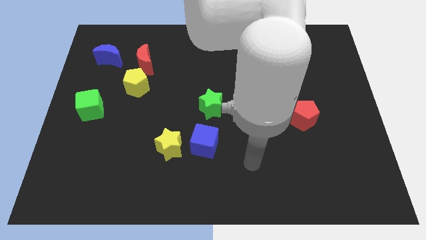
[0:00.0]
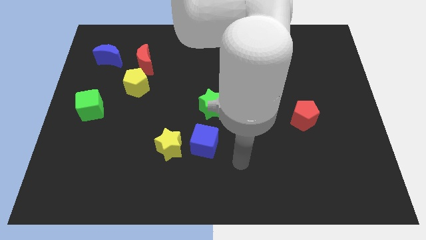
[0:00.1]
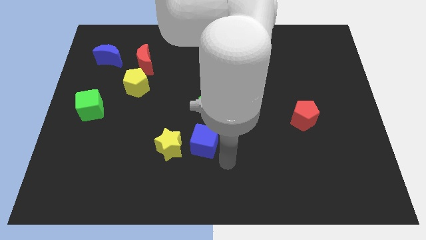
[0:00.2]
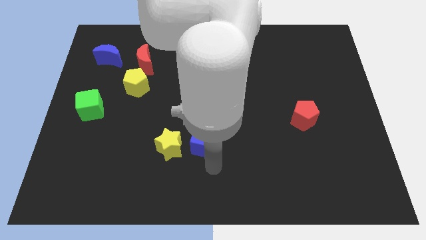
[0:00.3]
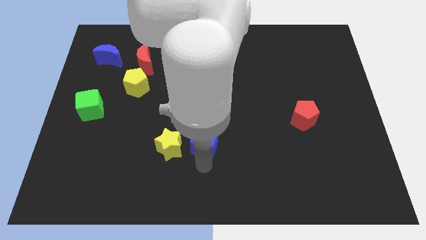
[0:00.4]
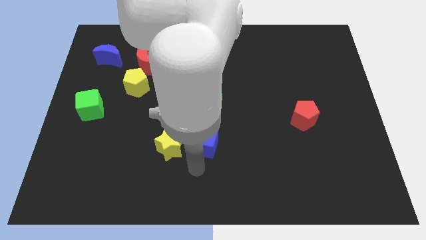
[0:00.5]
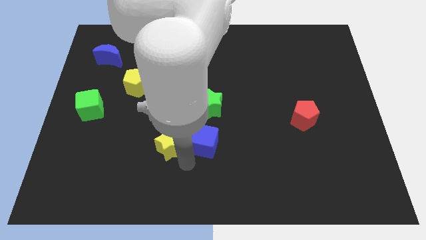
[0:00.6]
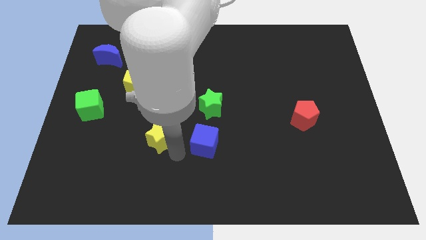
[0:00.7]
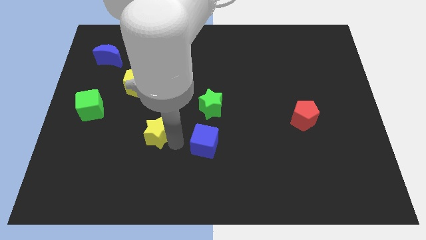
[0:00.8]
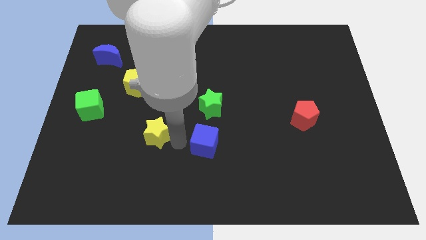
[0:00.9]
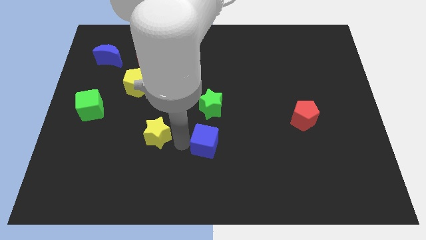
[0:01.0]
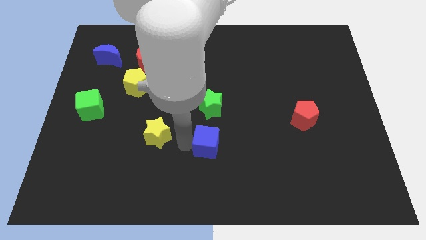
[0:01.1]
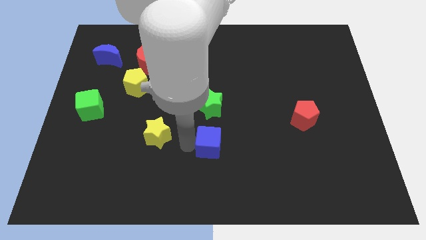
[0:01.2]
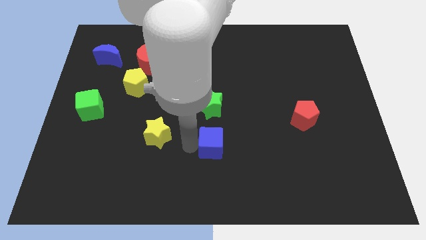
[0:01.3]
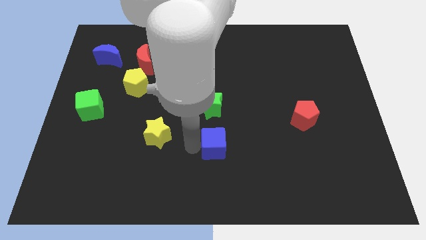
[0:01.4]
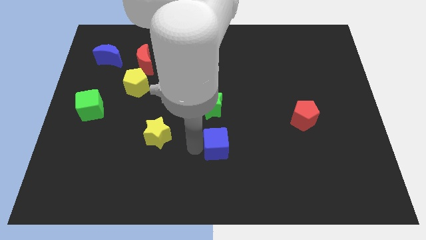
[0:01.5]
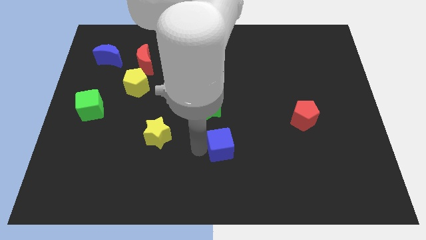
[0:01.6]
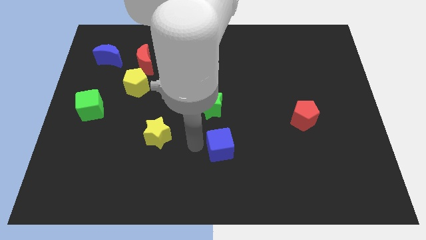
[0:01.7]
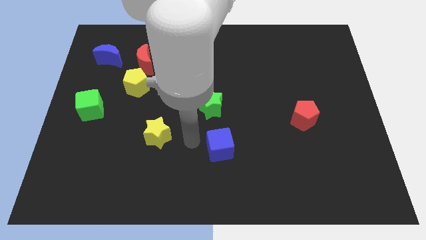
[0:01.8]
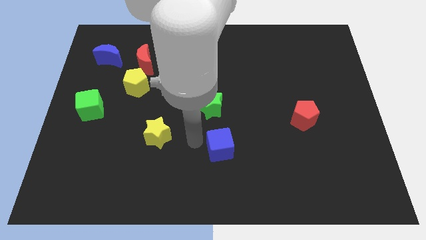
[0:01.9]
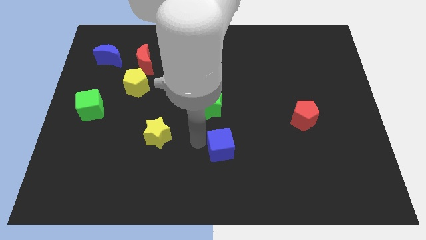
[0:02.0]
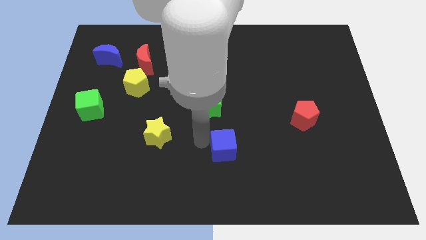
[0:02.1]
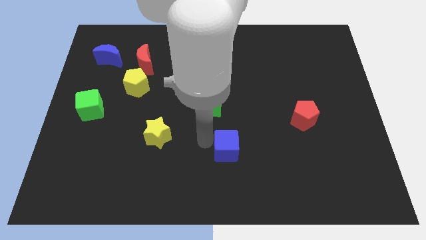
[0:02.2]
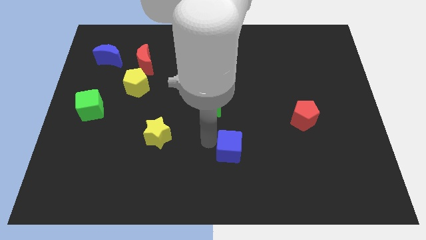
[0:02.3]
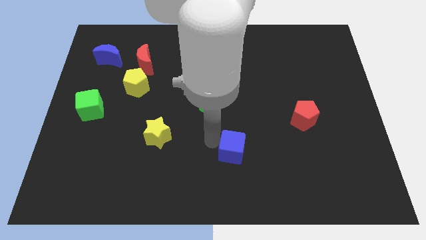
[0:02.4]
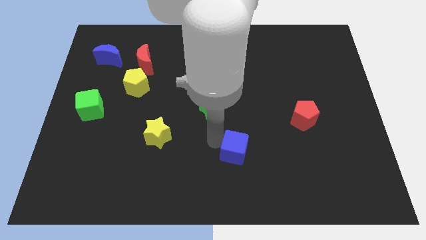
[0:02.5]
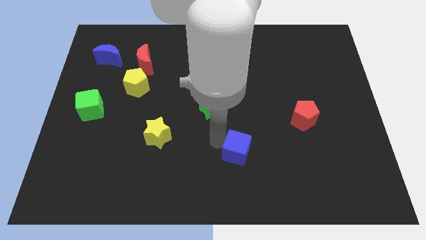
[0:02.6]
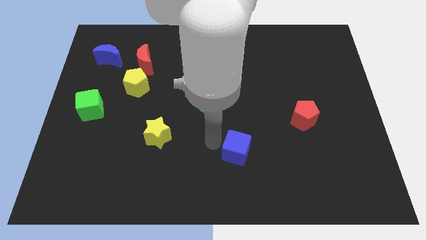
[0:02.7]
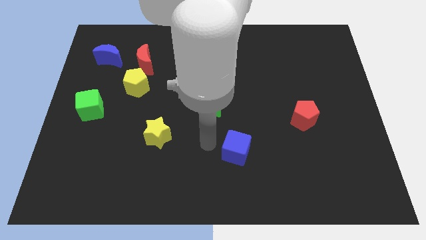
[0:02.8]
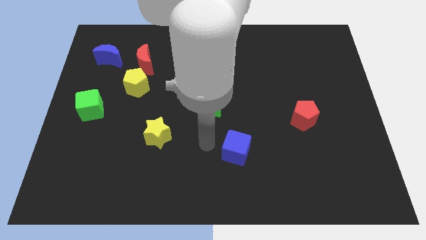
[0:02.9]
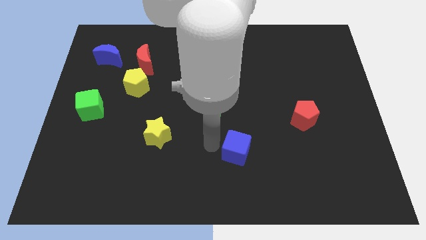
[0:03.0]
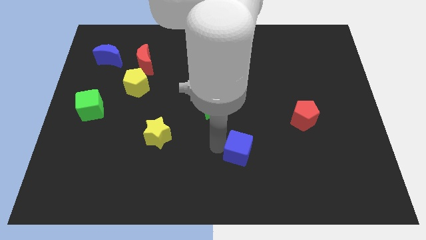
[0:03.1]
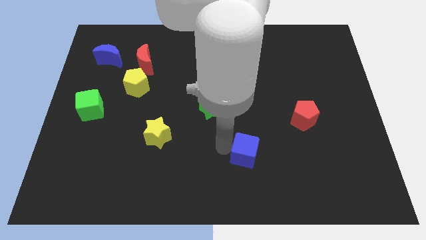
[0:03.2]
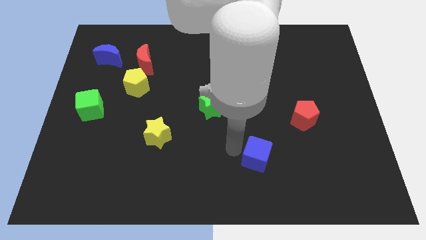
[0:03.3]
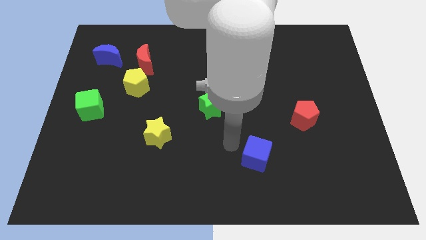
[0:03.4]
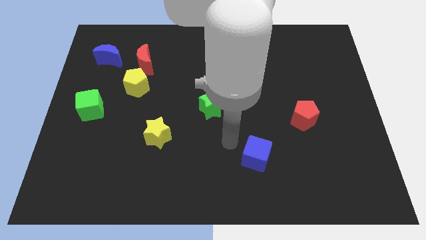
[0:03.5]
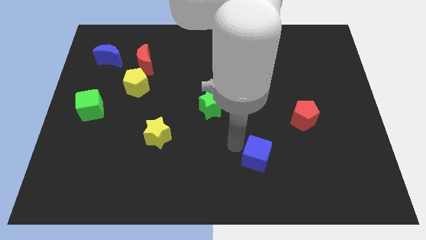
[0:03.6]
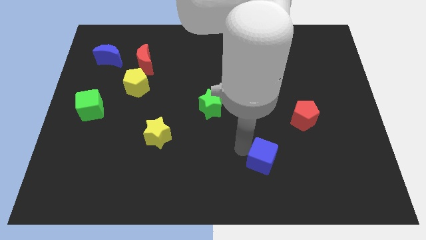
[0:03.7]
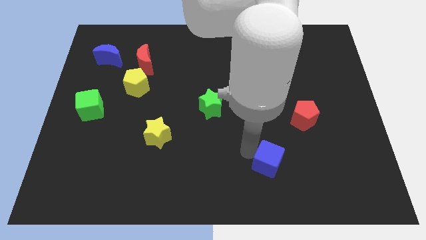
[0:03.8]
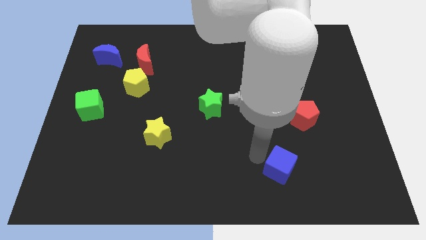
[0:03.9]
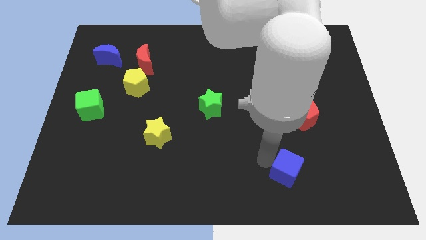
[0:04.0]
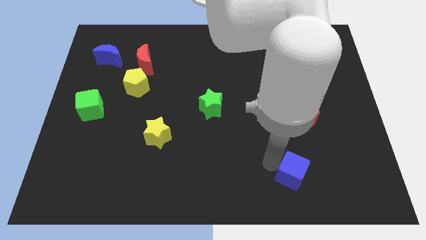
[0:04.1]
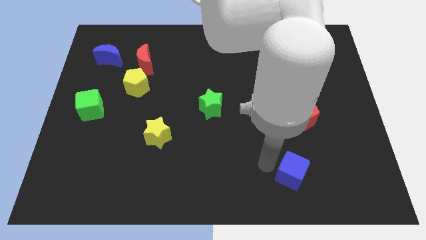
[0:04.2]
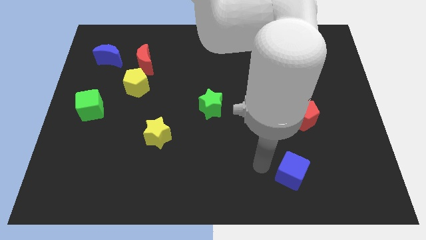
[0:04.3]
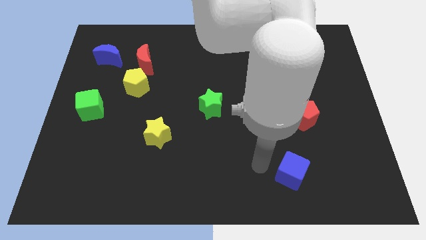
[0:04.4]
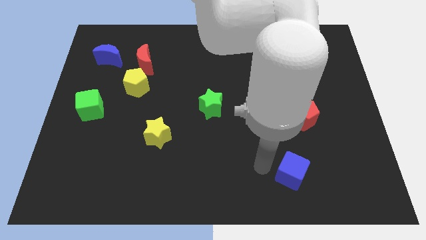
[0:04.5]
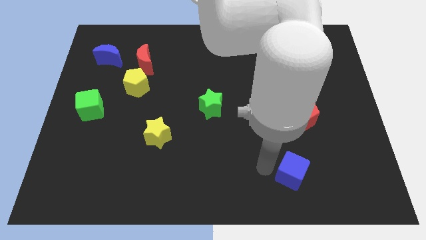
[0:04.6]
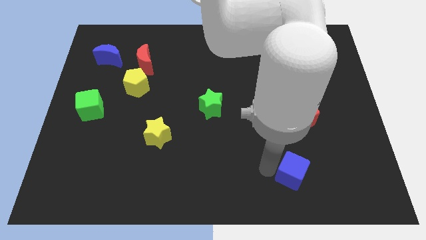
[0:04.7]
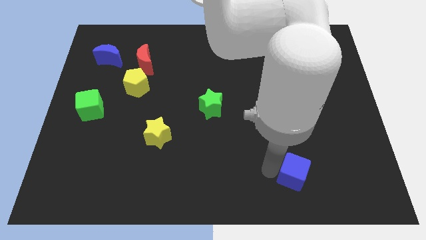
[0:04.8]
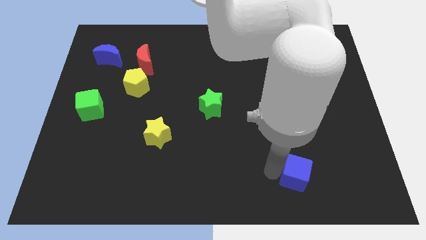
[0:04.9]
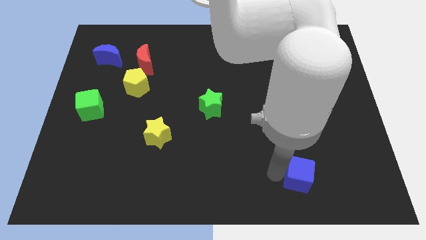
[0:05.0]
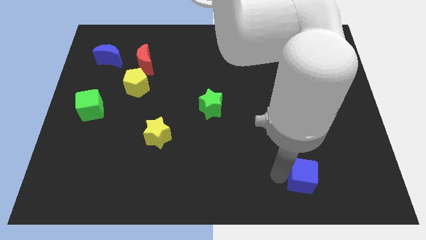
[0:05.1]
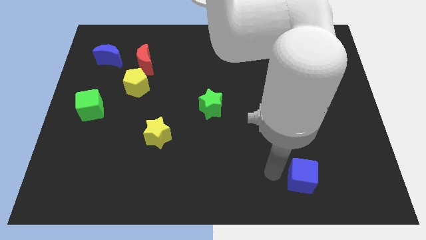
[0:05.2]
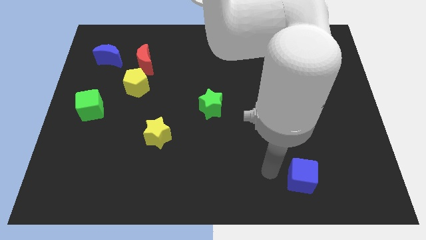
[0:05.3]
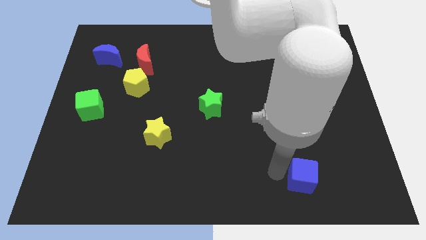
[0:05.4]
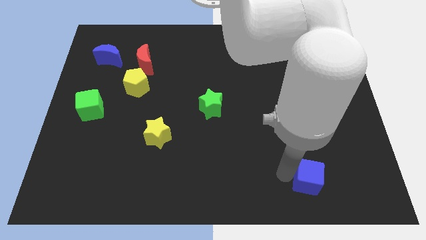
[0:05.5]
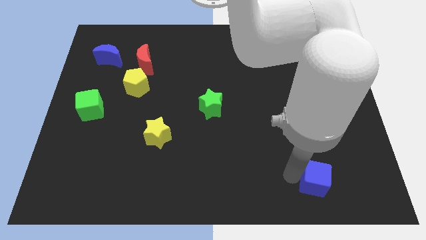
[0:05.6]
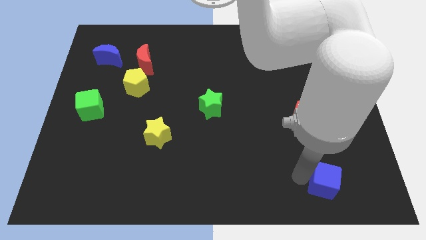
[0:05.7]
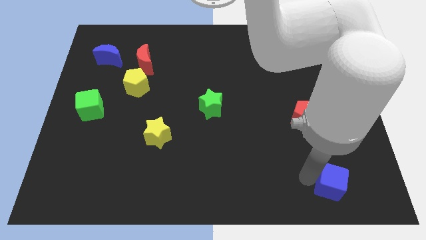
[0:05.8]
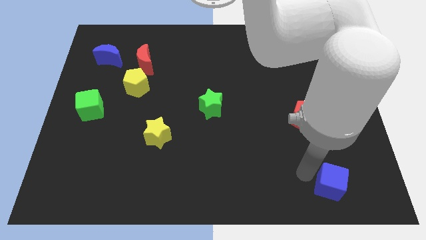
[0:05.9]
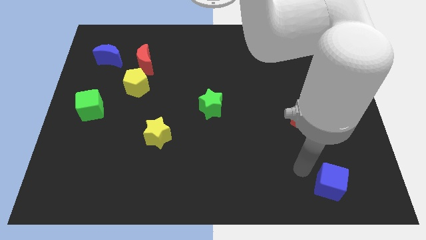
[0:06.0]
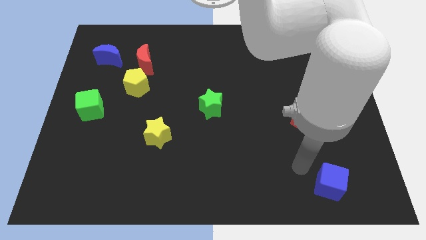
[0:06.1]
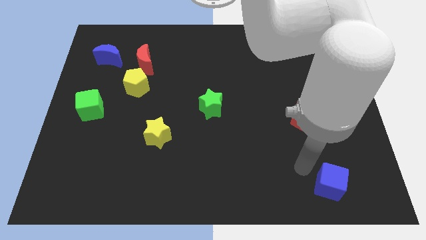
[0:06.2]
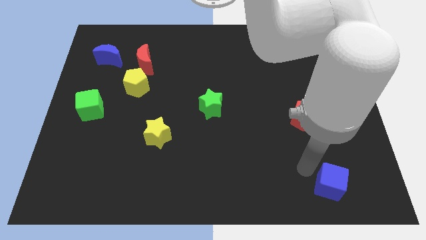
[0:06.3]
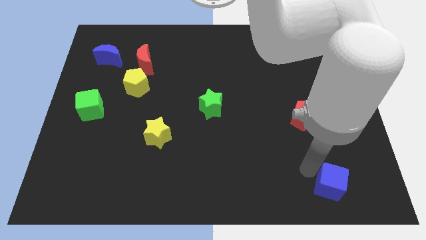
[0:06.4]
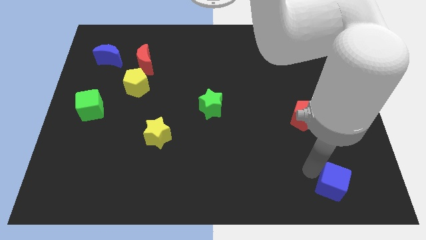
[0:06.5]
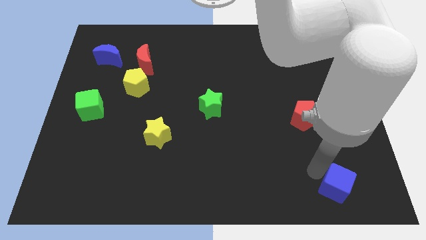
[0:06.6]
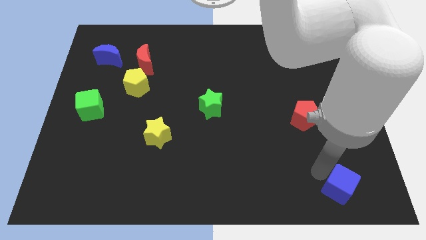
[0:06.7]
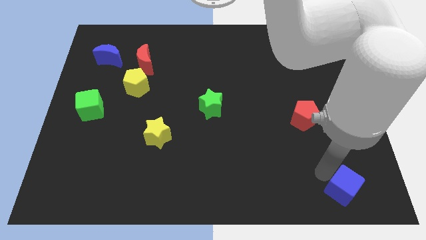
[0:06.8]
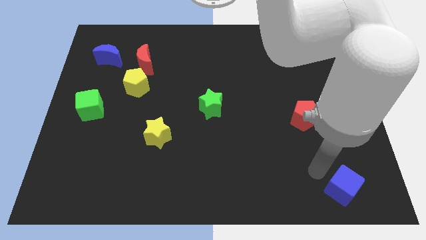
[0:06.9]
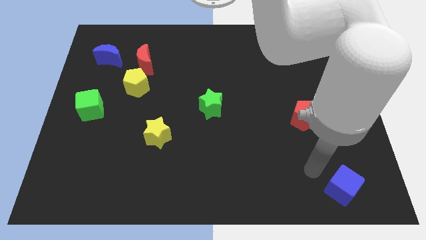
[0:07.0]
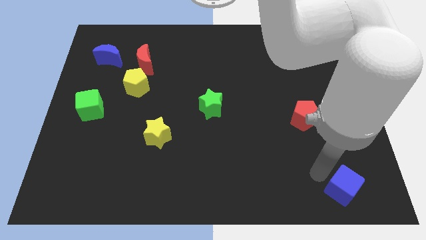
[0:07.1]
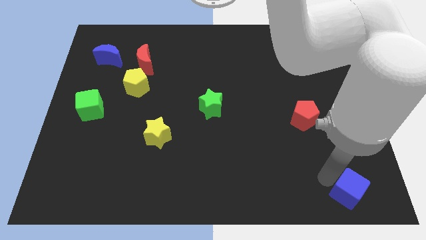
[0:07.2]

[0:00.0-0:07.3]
push the blue cube to the bottom right of the board

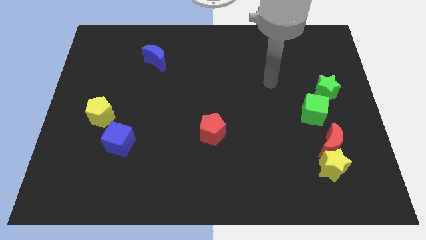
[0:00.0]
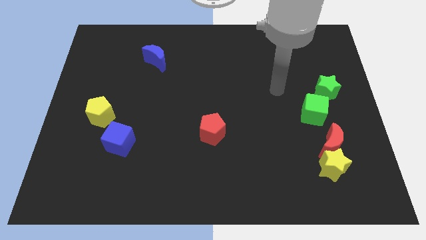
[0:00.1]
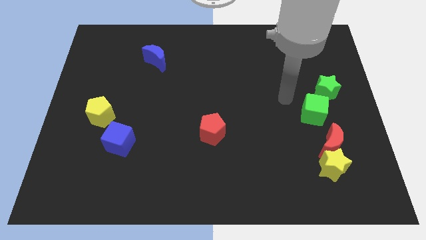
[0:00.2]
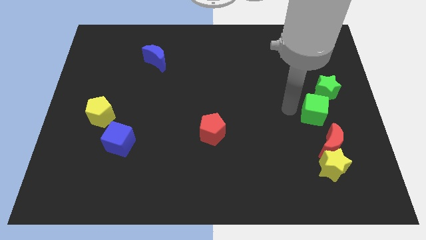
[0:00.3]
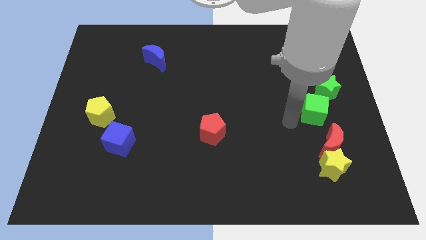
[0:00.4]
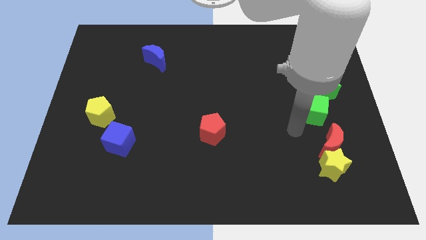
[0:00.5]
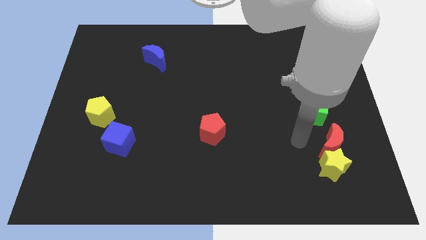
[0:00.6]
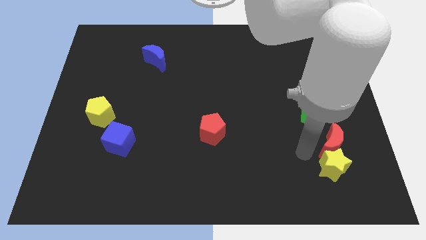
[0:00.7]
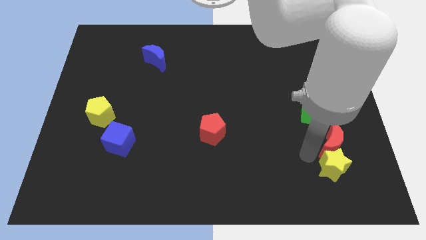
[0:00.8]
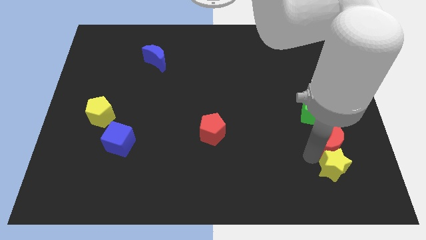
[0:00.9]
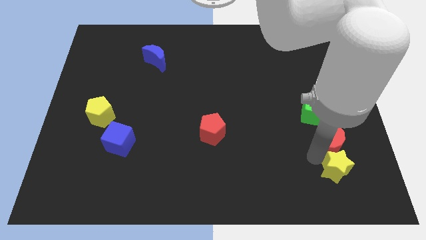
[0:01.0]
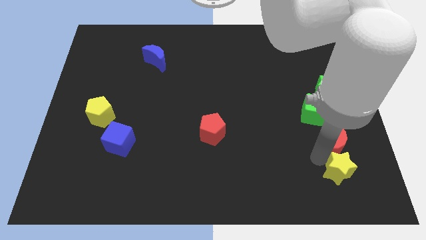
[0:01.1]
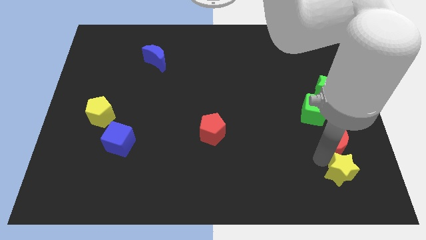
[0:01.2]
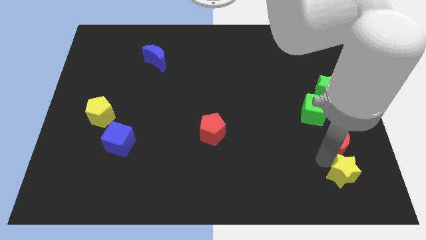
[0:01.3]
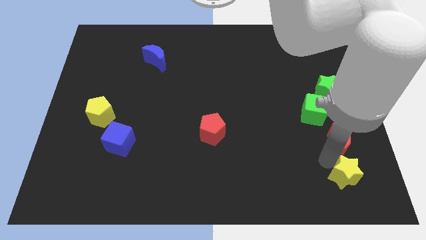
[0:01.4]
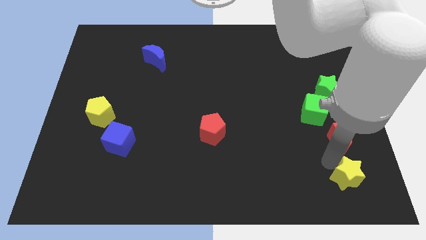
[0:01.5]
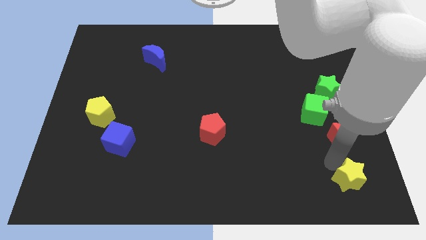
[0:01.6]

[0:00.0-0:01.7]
put the yellow star to the bottom right corner
